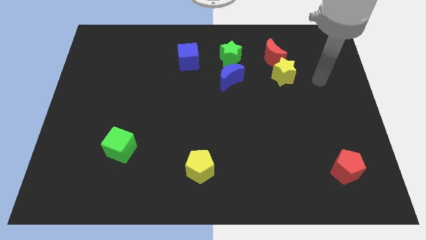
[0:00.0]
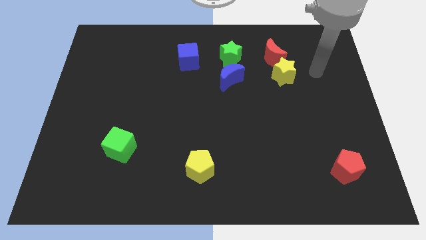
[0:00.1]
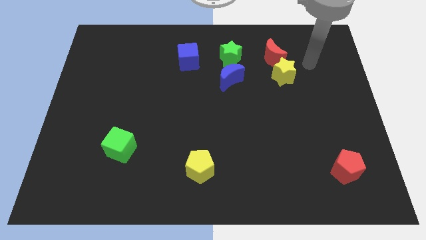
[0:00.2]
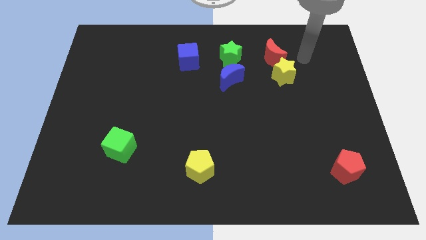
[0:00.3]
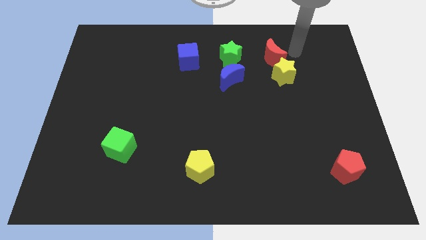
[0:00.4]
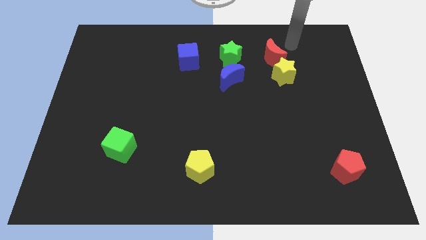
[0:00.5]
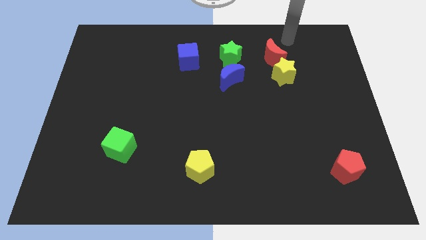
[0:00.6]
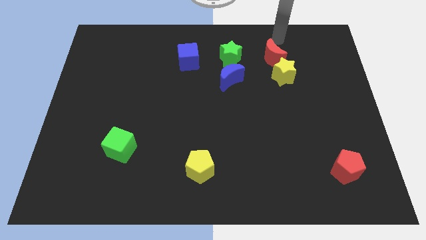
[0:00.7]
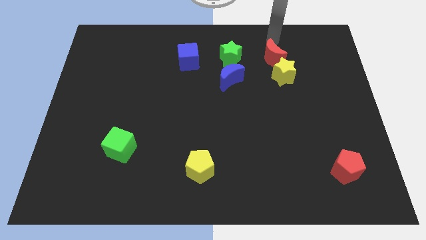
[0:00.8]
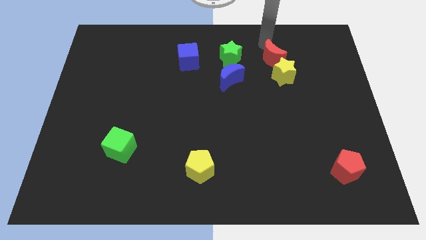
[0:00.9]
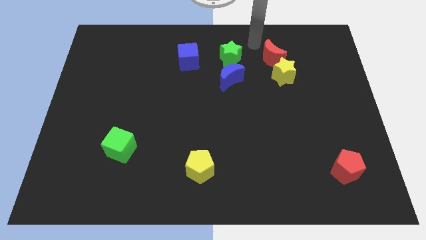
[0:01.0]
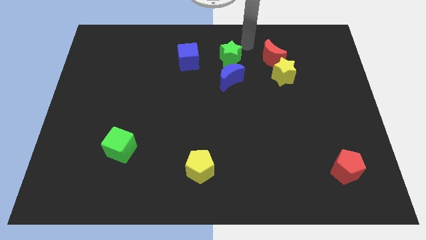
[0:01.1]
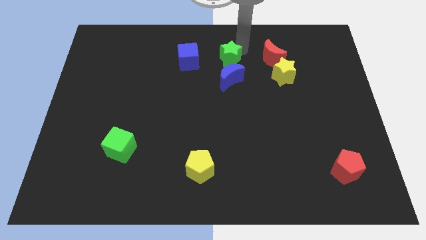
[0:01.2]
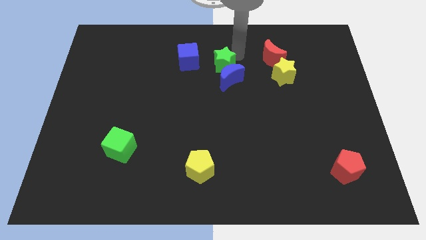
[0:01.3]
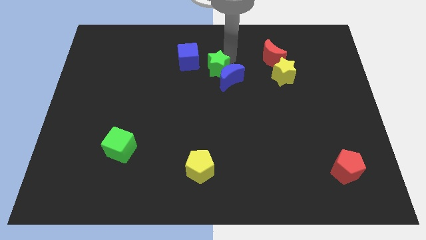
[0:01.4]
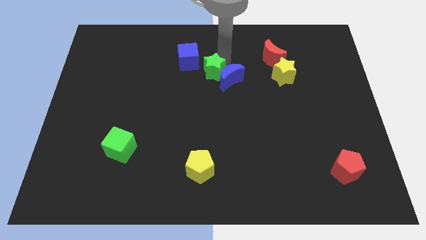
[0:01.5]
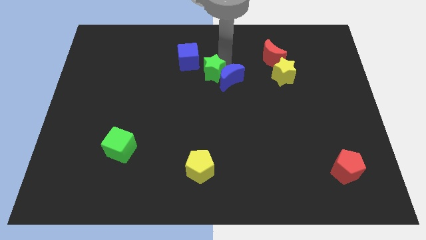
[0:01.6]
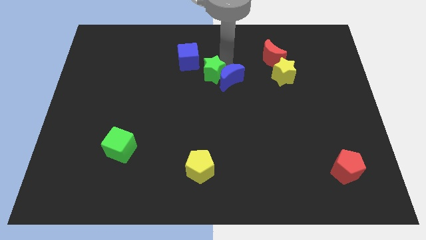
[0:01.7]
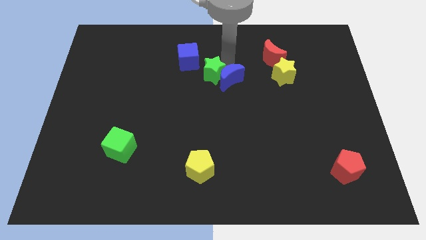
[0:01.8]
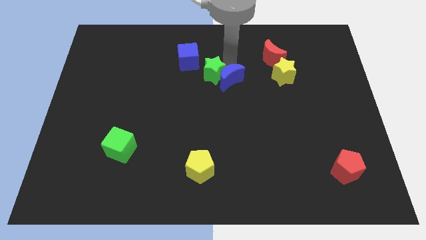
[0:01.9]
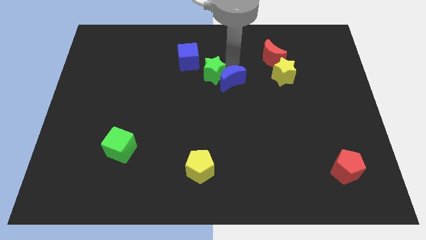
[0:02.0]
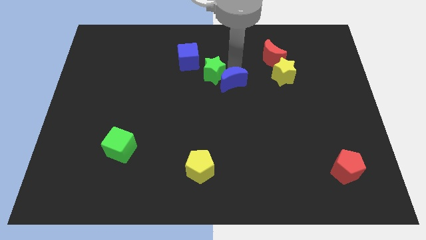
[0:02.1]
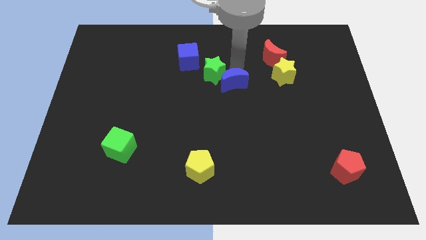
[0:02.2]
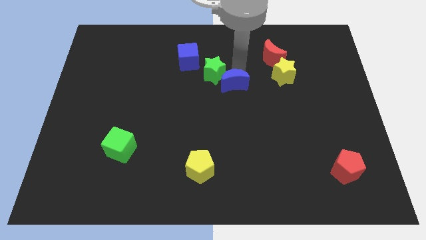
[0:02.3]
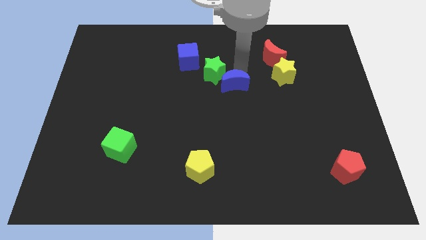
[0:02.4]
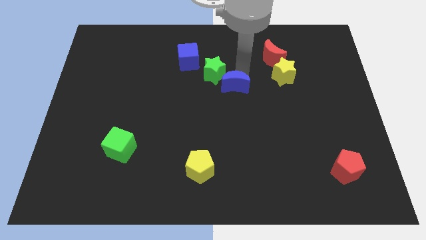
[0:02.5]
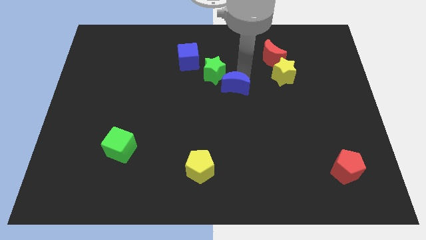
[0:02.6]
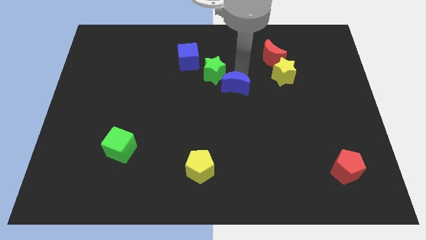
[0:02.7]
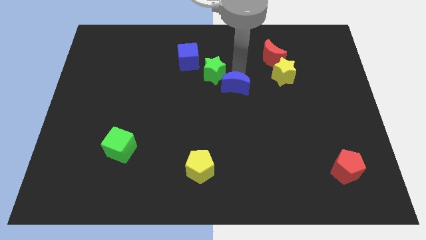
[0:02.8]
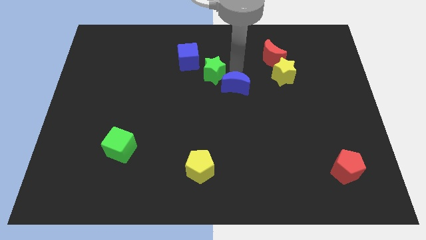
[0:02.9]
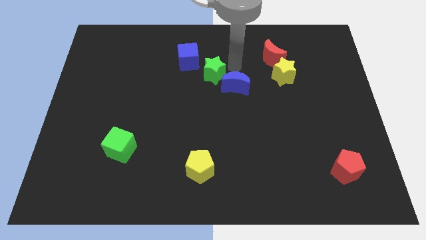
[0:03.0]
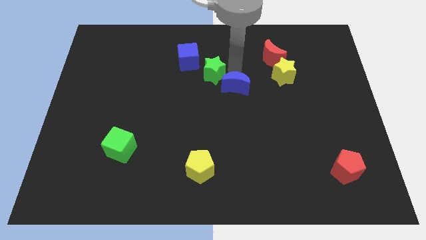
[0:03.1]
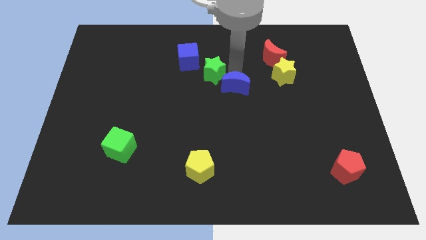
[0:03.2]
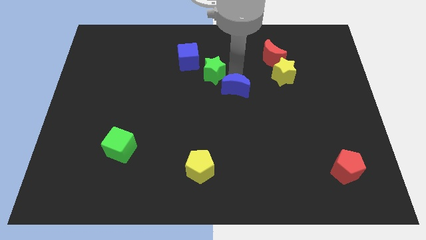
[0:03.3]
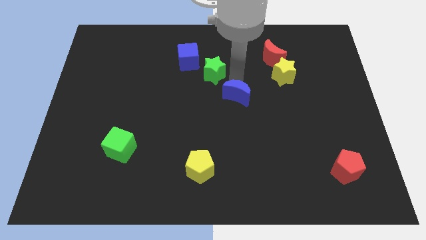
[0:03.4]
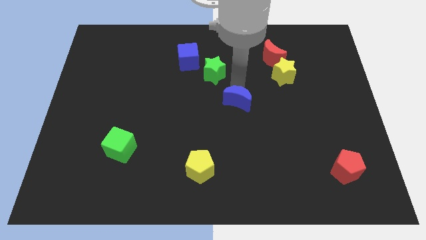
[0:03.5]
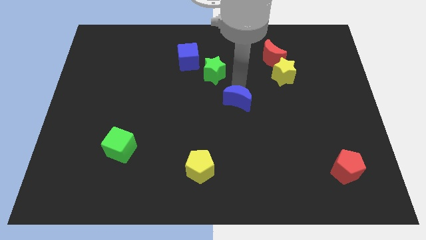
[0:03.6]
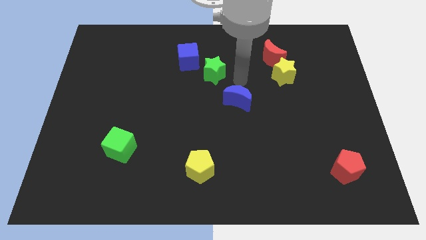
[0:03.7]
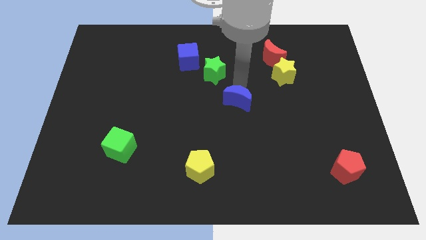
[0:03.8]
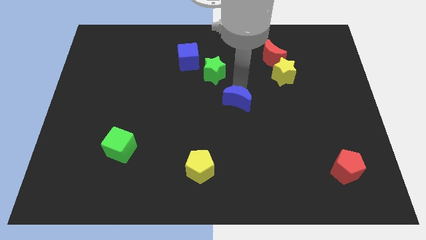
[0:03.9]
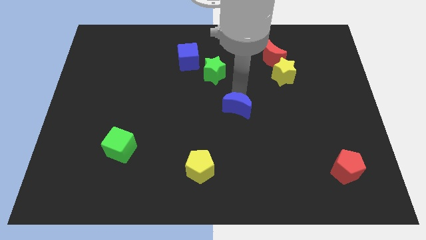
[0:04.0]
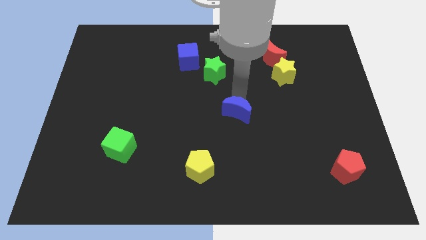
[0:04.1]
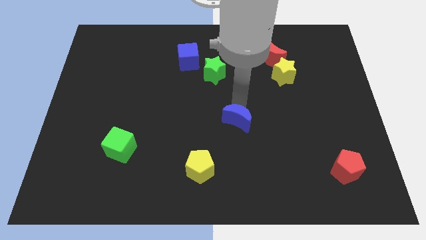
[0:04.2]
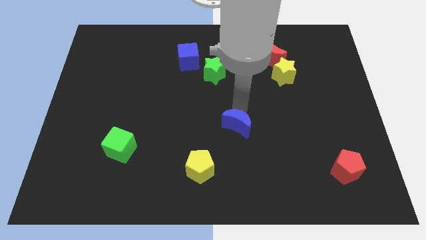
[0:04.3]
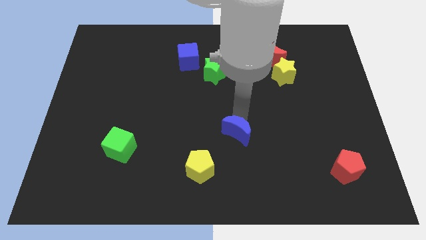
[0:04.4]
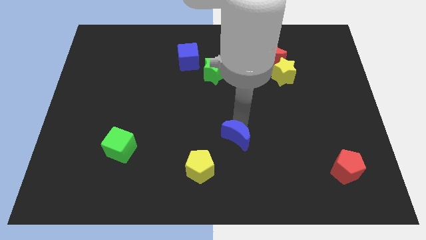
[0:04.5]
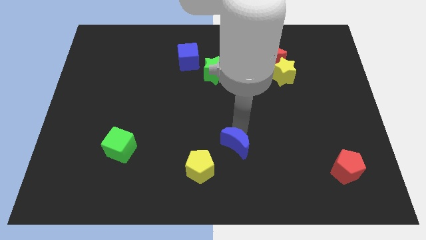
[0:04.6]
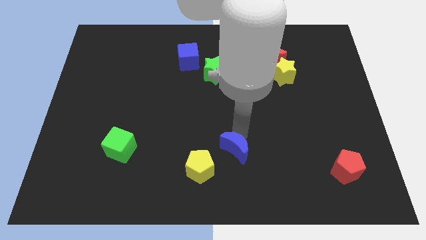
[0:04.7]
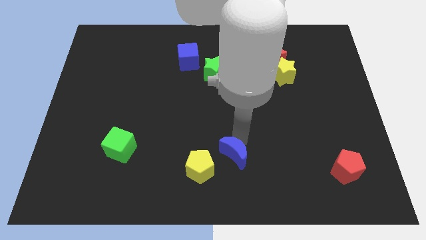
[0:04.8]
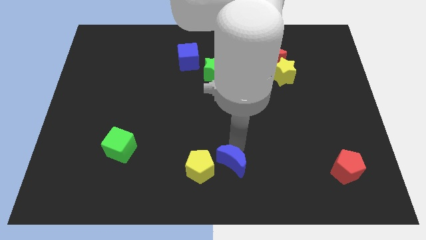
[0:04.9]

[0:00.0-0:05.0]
move the blue moon to the bottom side

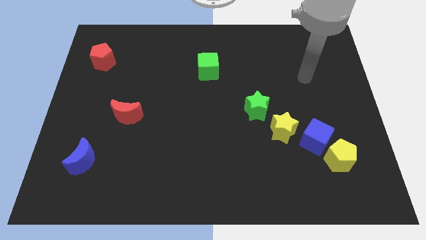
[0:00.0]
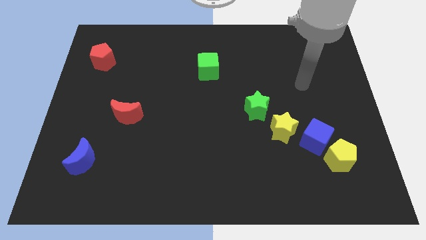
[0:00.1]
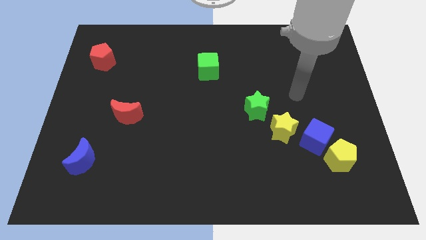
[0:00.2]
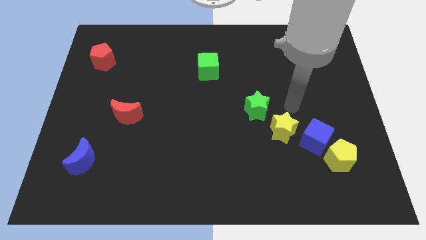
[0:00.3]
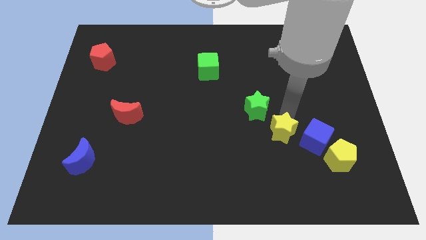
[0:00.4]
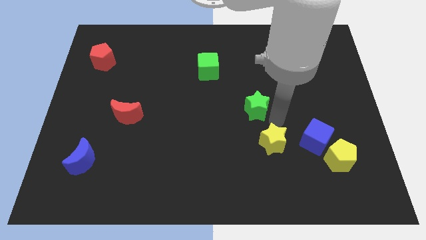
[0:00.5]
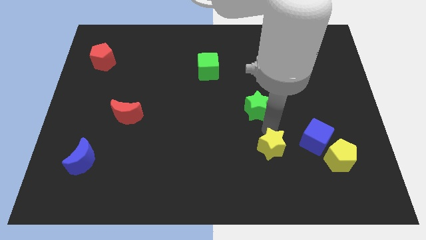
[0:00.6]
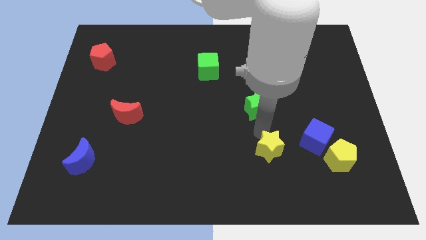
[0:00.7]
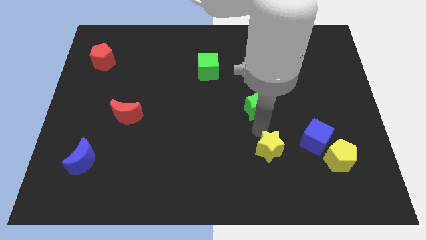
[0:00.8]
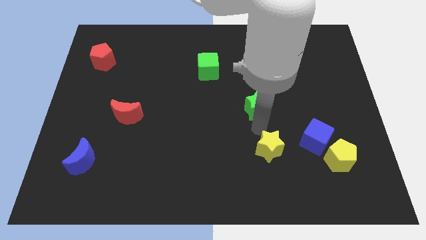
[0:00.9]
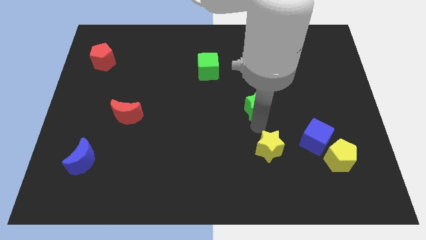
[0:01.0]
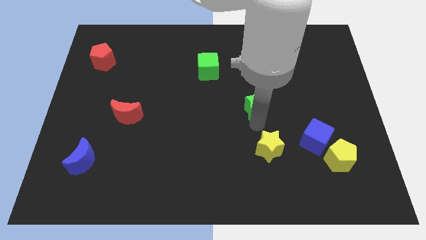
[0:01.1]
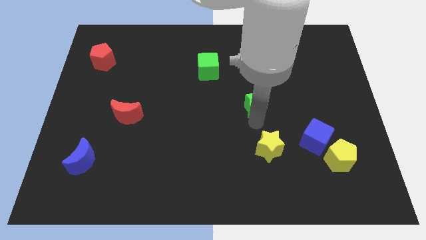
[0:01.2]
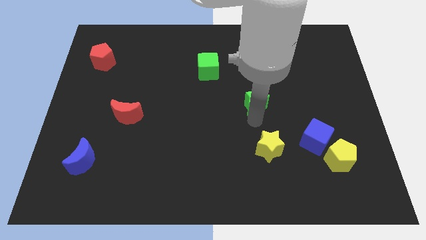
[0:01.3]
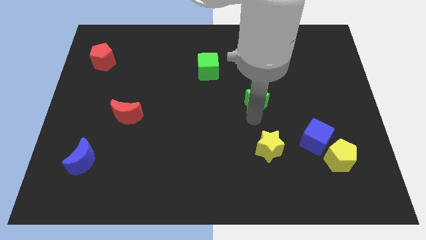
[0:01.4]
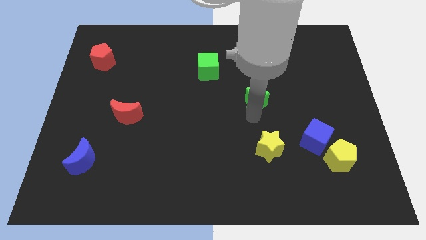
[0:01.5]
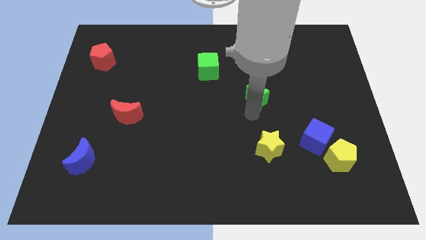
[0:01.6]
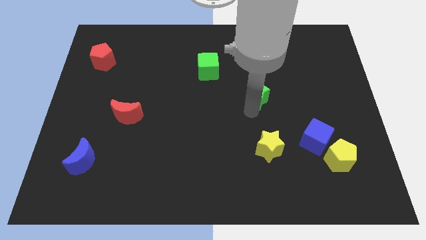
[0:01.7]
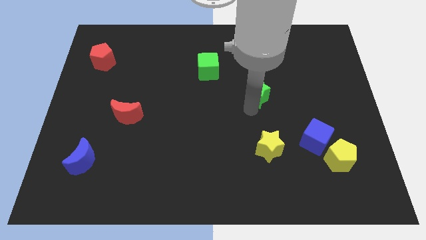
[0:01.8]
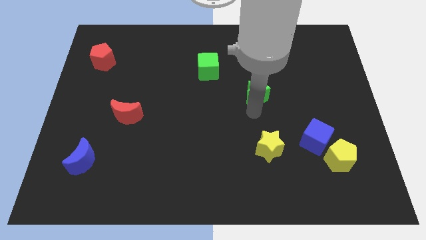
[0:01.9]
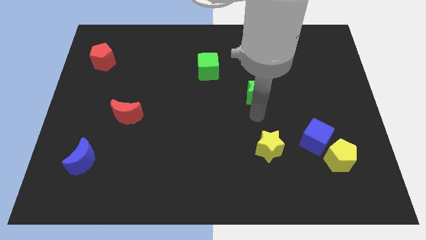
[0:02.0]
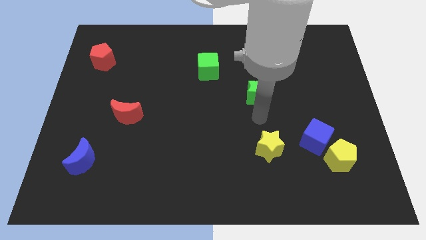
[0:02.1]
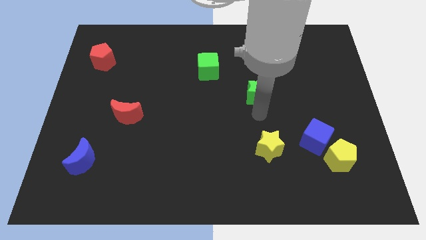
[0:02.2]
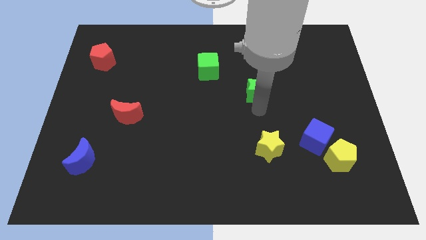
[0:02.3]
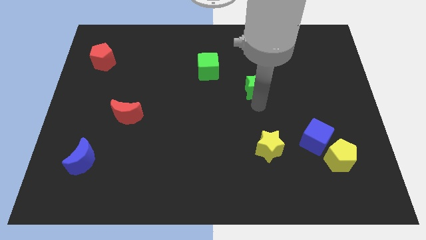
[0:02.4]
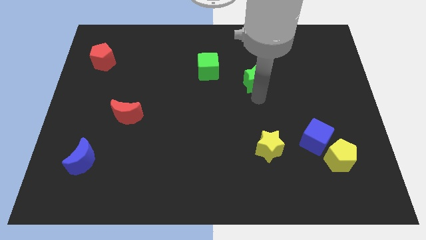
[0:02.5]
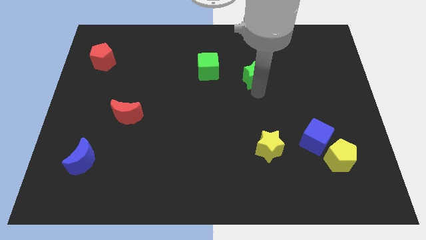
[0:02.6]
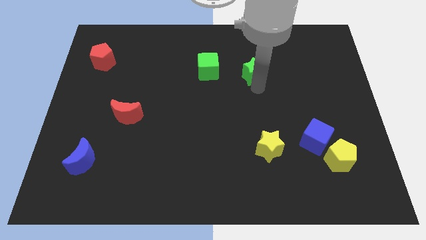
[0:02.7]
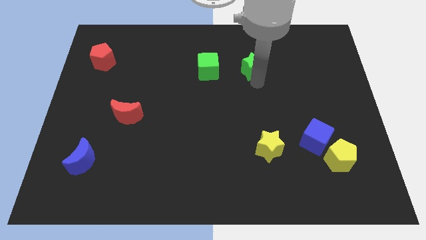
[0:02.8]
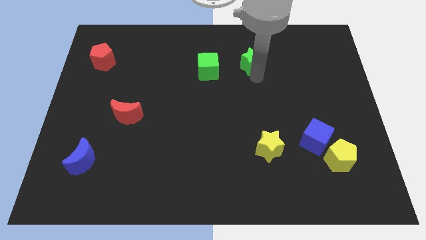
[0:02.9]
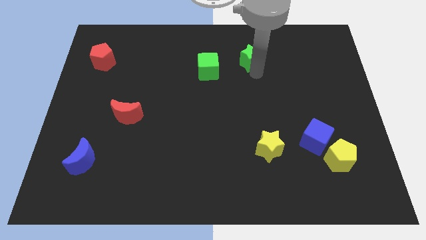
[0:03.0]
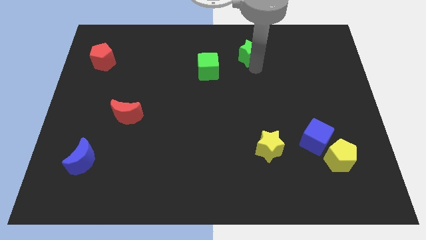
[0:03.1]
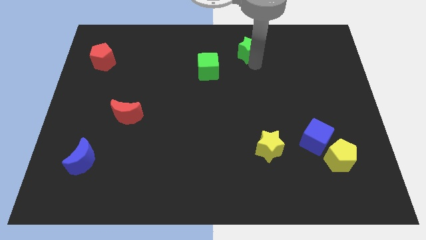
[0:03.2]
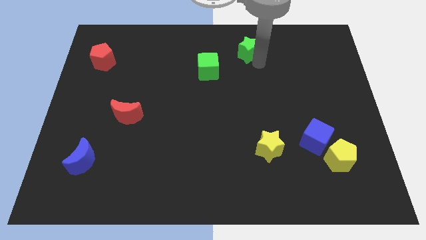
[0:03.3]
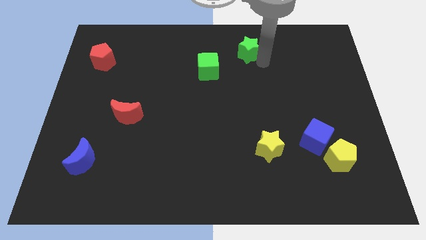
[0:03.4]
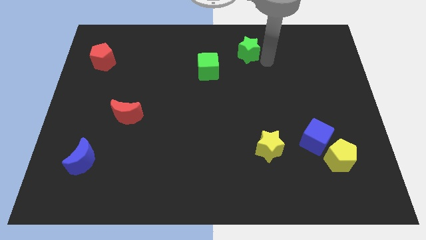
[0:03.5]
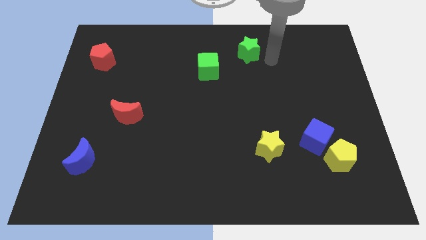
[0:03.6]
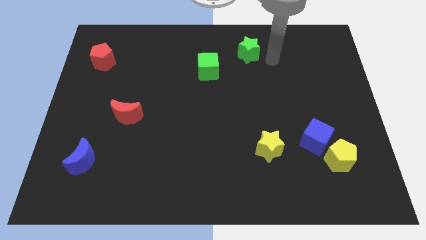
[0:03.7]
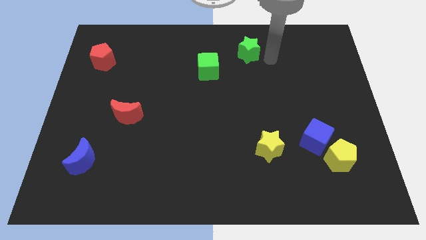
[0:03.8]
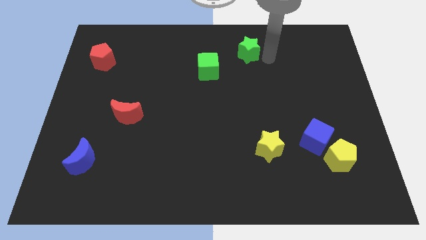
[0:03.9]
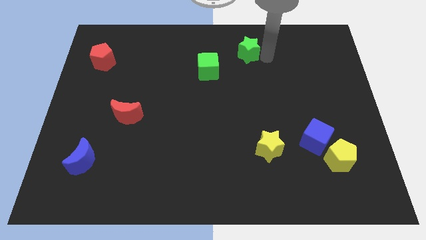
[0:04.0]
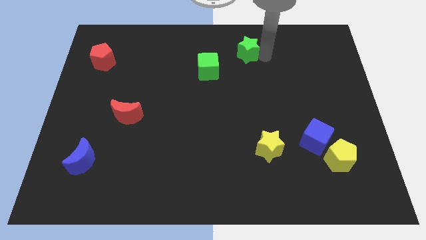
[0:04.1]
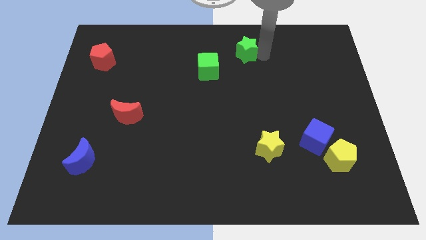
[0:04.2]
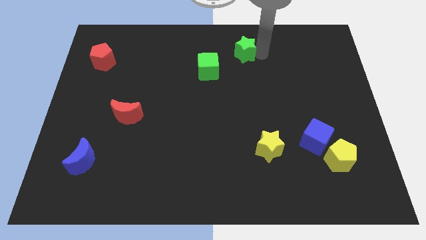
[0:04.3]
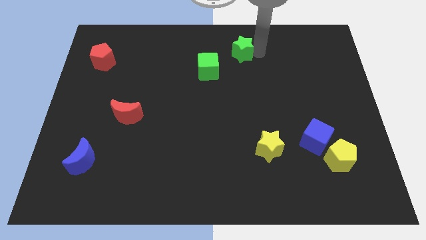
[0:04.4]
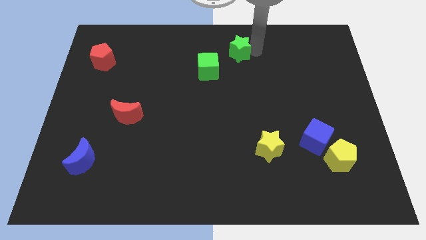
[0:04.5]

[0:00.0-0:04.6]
slide the green star to the towards your base
